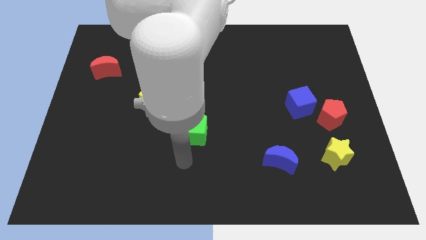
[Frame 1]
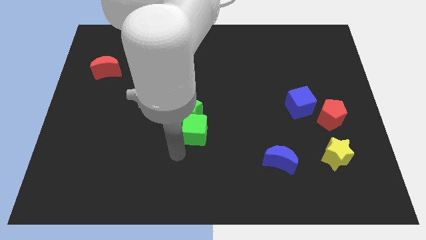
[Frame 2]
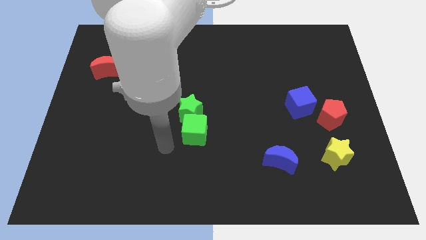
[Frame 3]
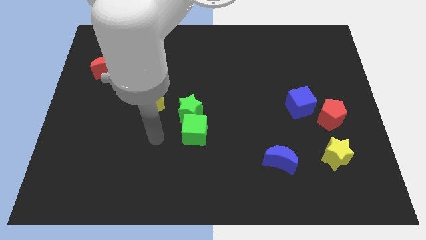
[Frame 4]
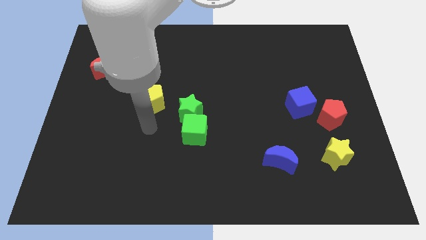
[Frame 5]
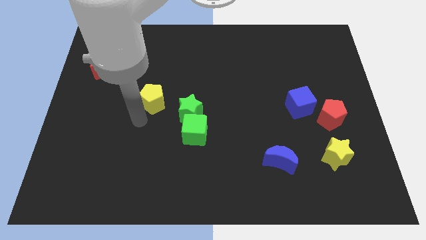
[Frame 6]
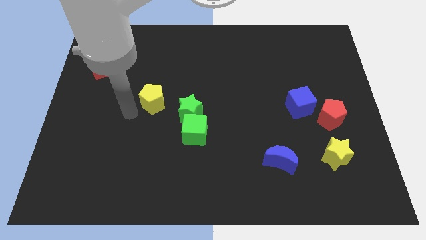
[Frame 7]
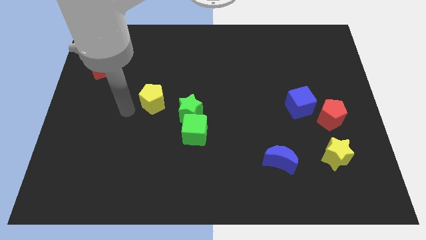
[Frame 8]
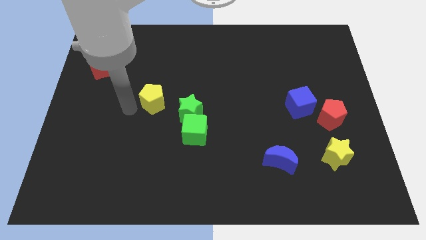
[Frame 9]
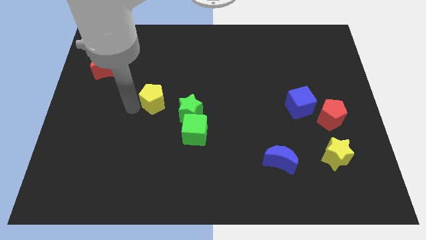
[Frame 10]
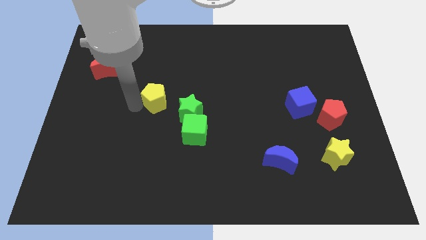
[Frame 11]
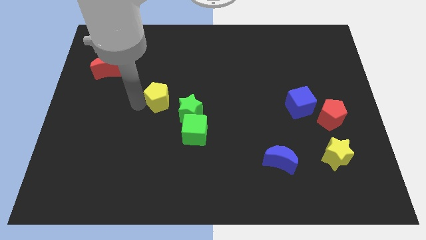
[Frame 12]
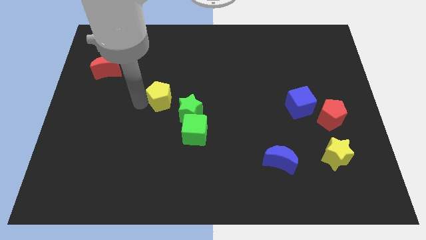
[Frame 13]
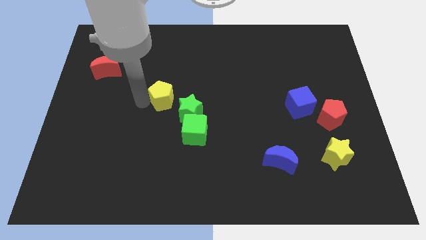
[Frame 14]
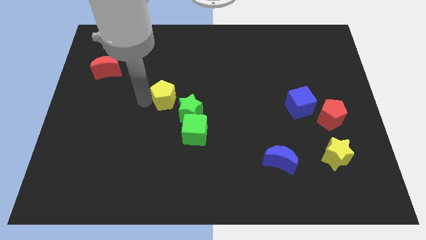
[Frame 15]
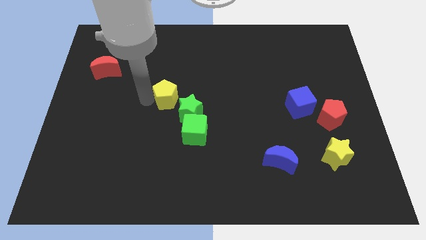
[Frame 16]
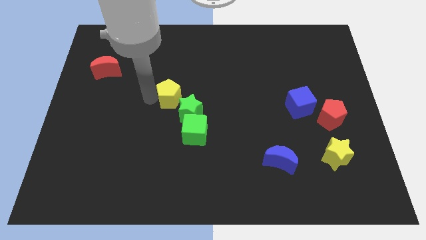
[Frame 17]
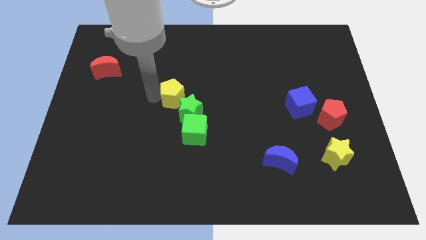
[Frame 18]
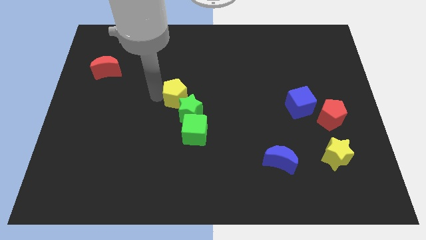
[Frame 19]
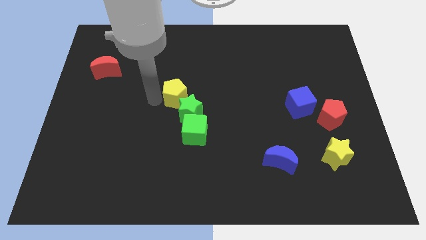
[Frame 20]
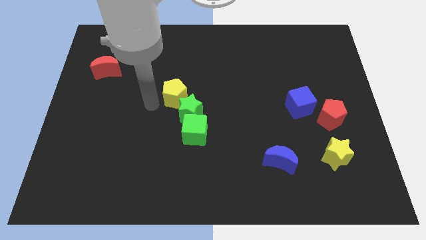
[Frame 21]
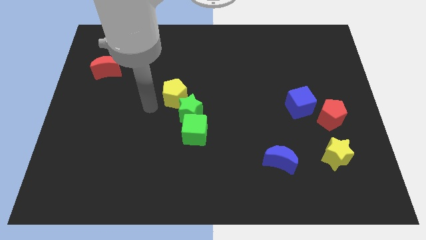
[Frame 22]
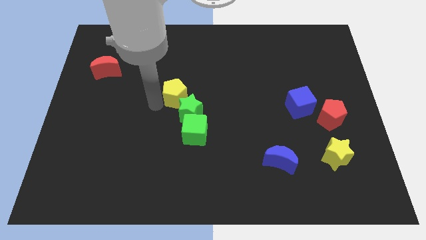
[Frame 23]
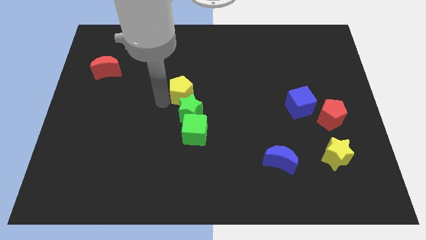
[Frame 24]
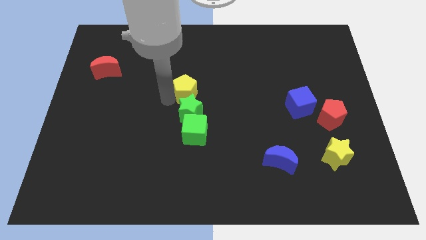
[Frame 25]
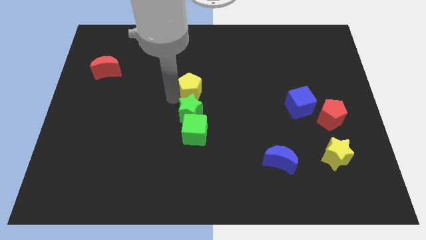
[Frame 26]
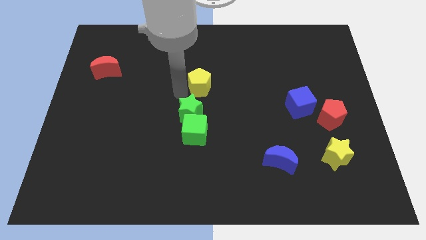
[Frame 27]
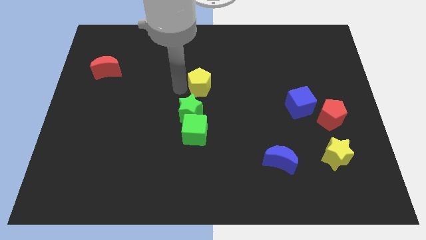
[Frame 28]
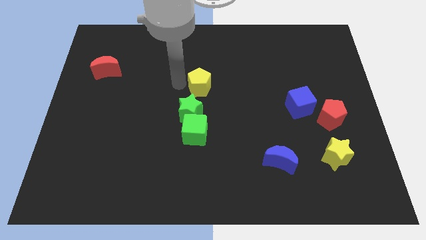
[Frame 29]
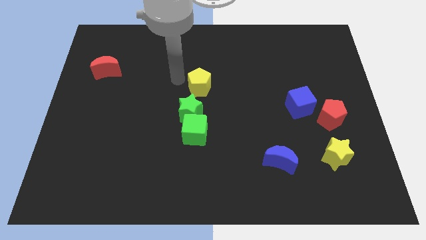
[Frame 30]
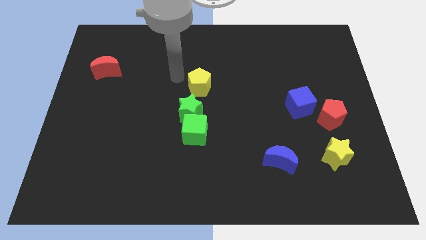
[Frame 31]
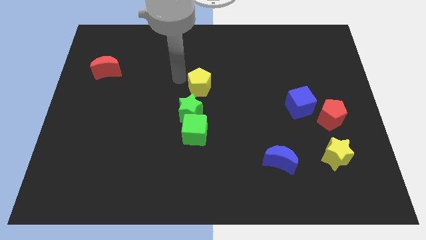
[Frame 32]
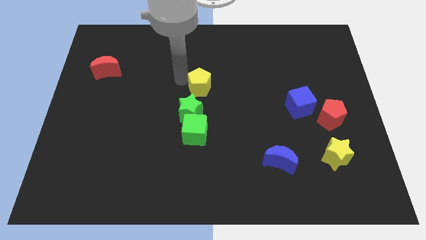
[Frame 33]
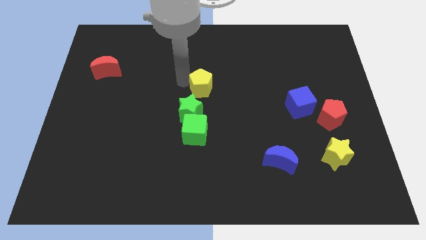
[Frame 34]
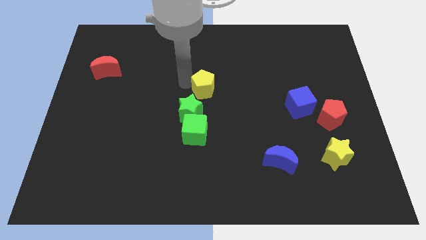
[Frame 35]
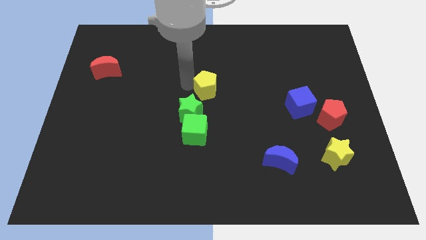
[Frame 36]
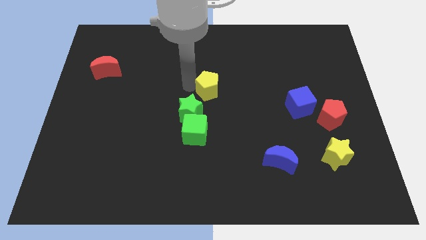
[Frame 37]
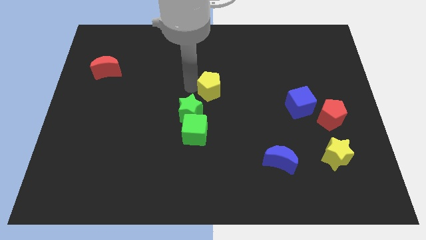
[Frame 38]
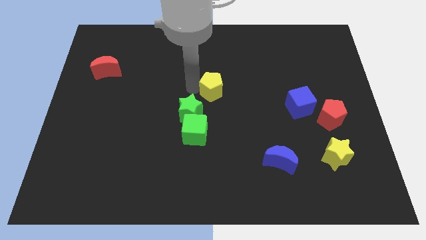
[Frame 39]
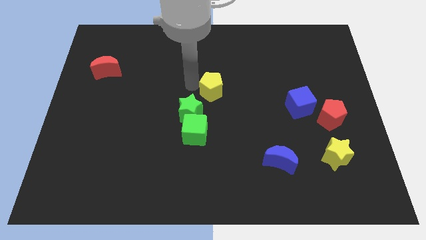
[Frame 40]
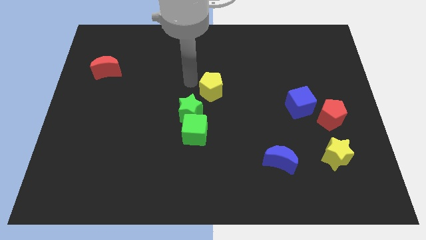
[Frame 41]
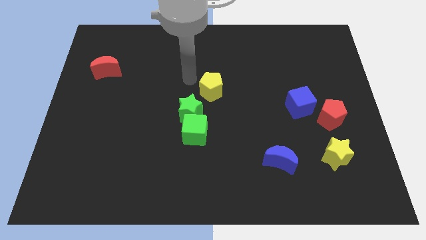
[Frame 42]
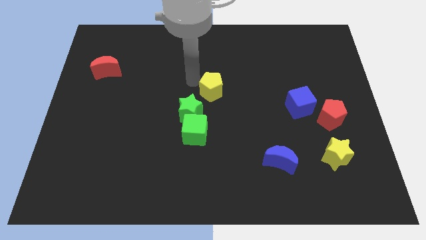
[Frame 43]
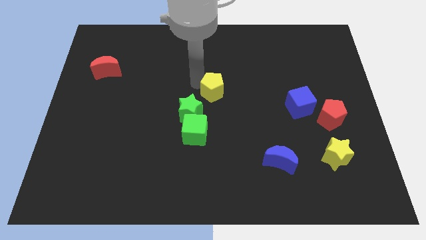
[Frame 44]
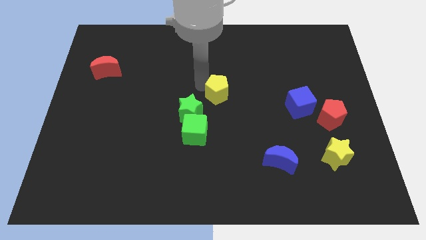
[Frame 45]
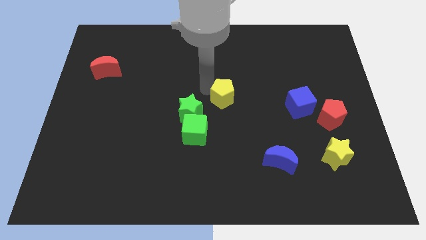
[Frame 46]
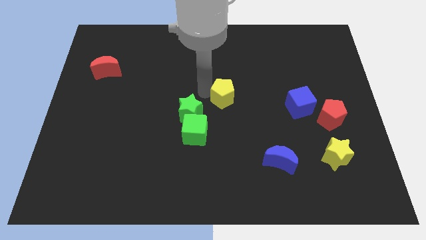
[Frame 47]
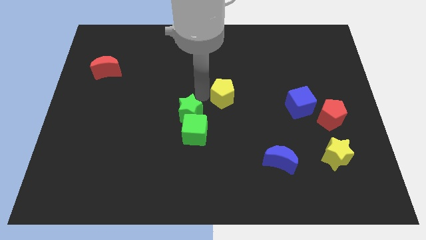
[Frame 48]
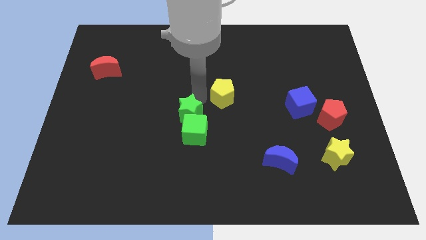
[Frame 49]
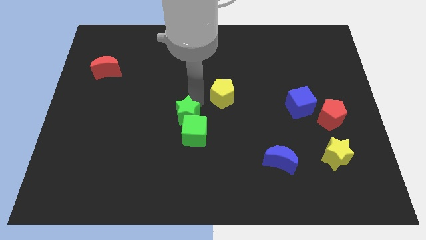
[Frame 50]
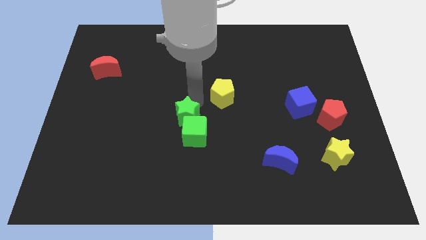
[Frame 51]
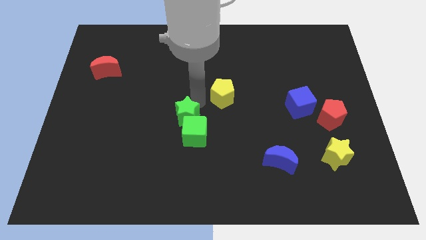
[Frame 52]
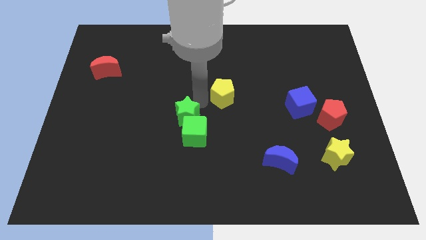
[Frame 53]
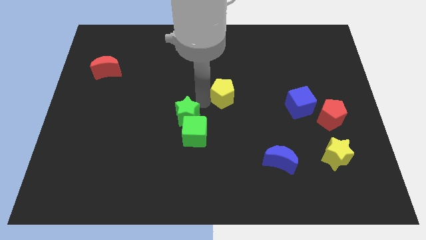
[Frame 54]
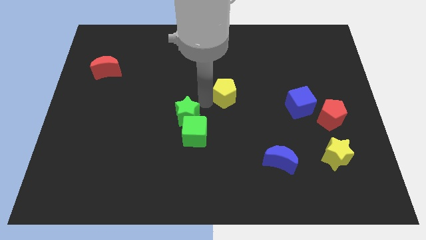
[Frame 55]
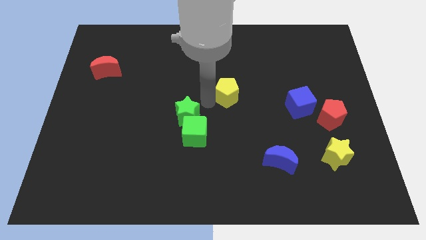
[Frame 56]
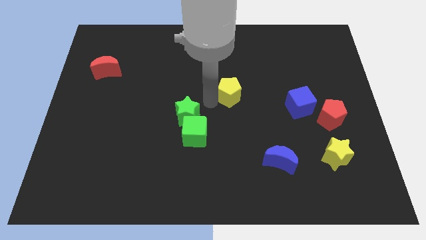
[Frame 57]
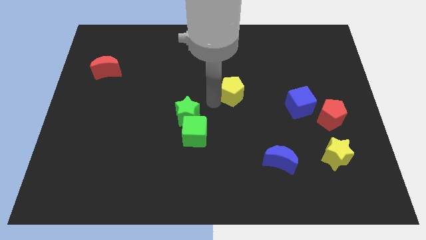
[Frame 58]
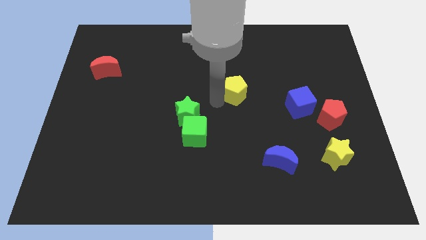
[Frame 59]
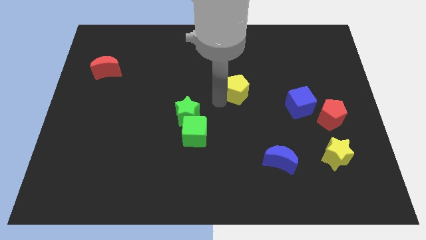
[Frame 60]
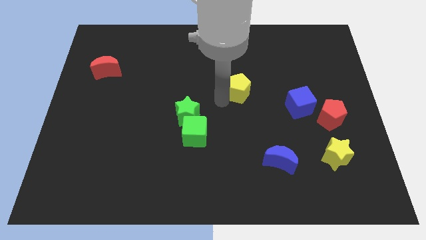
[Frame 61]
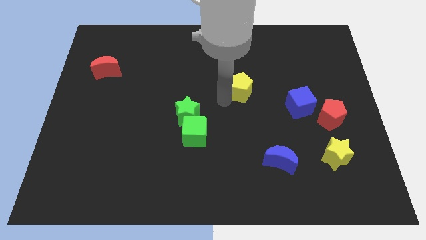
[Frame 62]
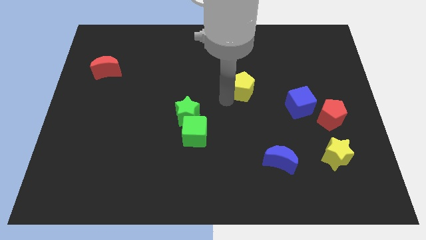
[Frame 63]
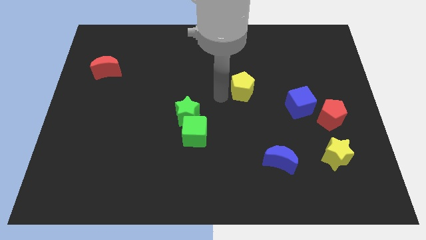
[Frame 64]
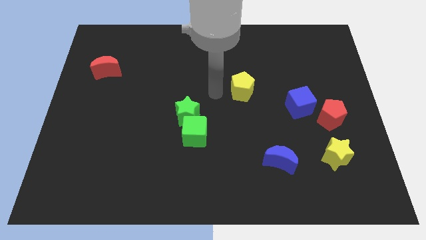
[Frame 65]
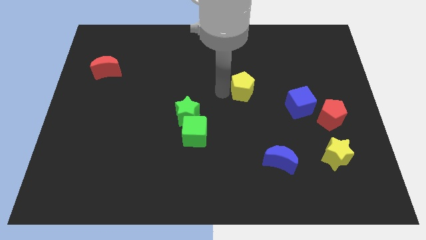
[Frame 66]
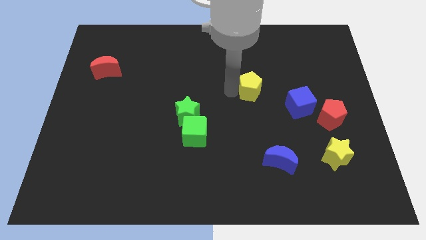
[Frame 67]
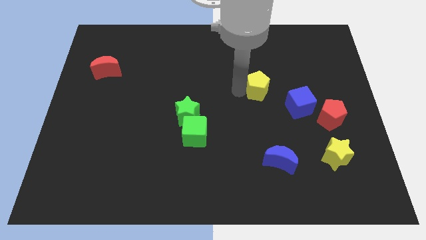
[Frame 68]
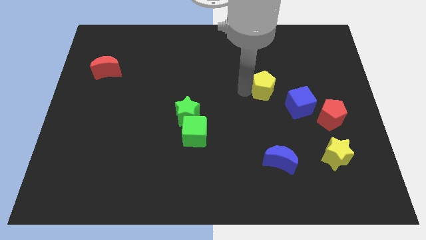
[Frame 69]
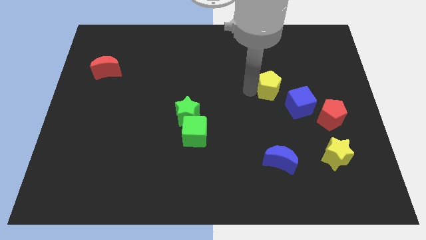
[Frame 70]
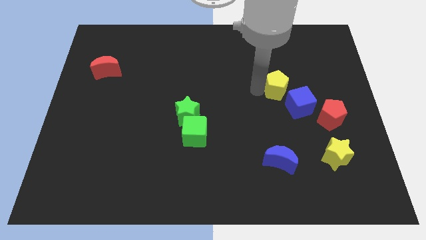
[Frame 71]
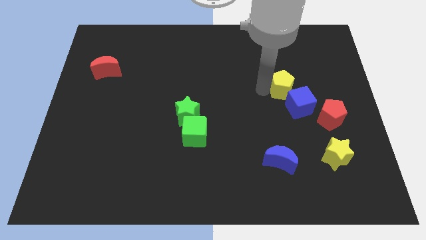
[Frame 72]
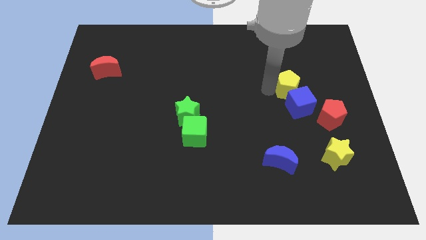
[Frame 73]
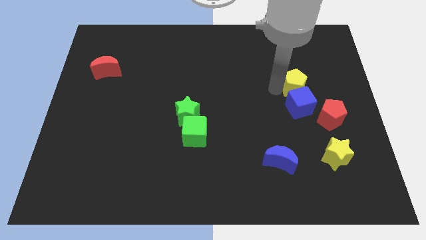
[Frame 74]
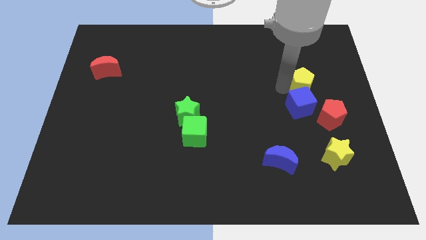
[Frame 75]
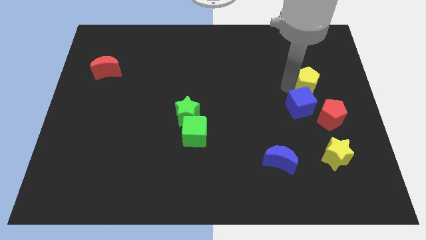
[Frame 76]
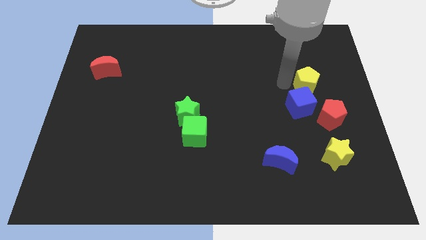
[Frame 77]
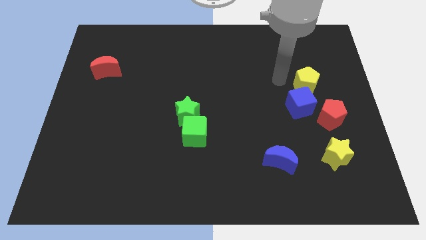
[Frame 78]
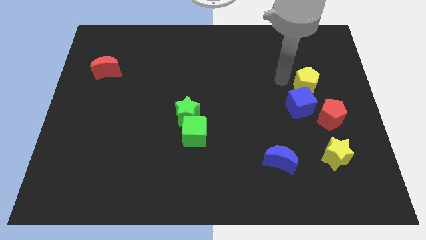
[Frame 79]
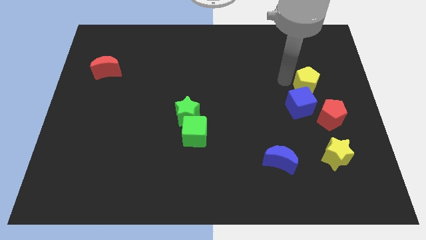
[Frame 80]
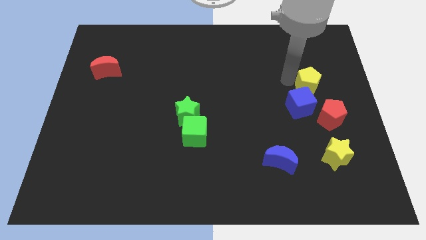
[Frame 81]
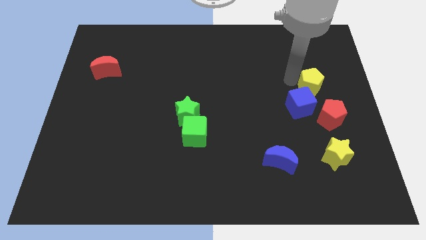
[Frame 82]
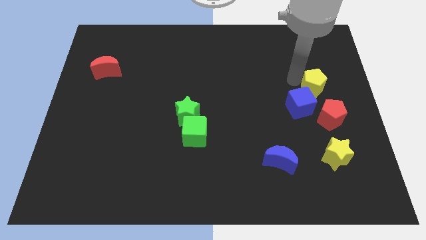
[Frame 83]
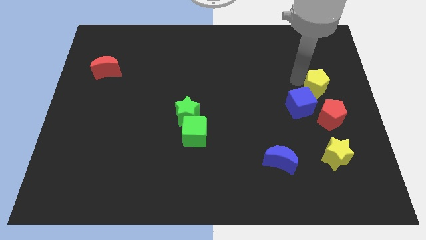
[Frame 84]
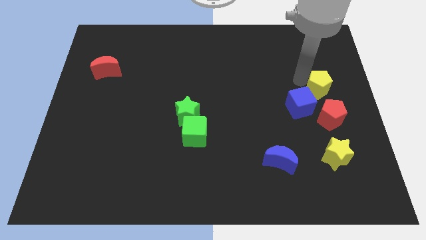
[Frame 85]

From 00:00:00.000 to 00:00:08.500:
slide the yellow pentagon to the right side
